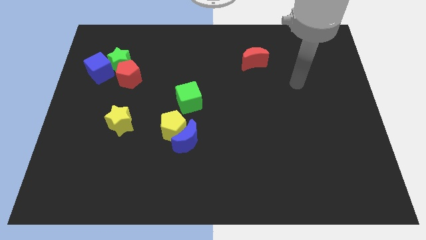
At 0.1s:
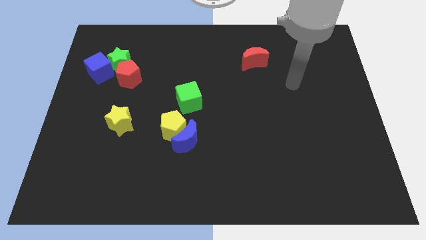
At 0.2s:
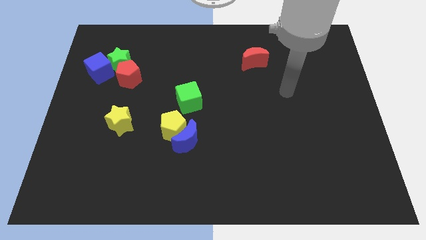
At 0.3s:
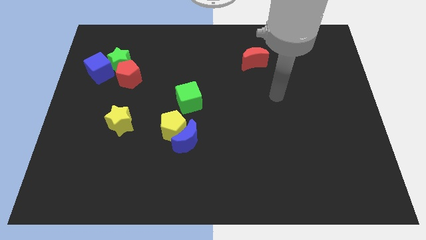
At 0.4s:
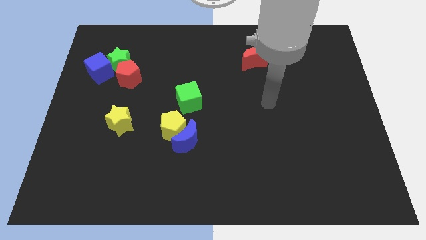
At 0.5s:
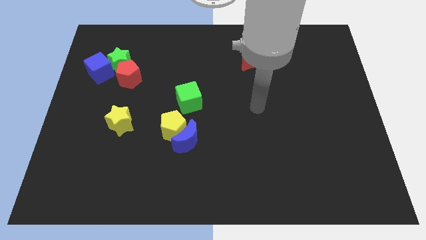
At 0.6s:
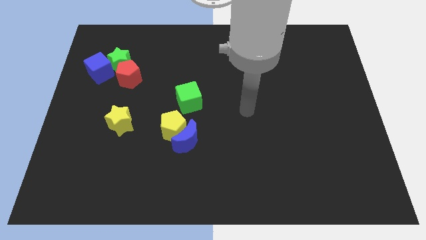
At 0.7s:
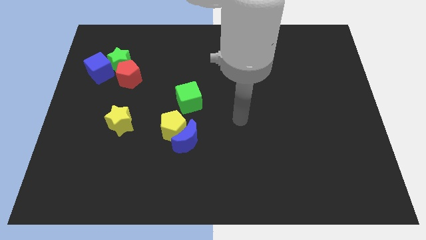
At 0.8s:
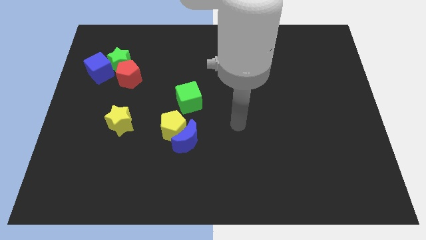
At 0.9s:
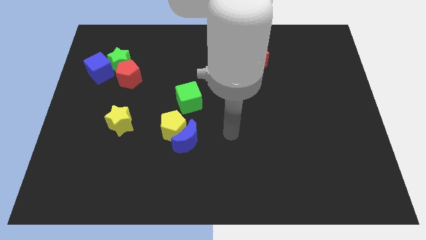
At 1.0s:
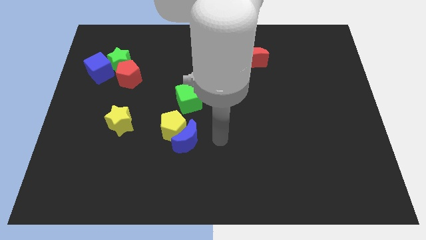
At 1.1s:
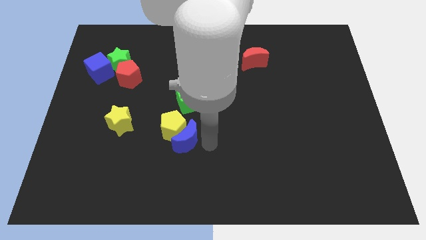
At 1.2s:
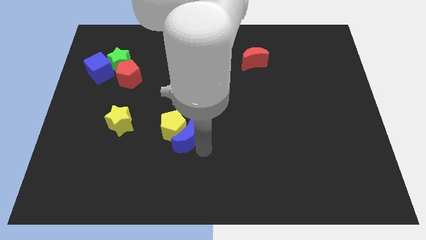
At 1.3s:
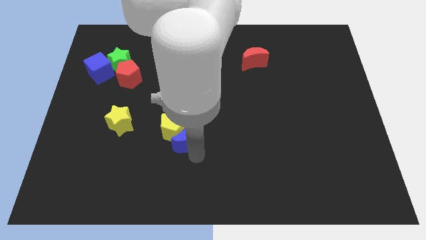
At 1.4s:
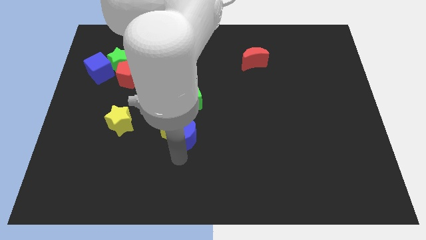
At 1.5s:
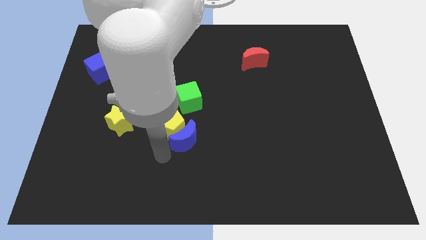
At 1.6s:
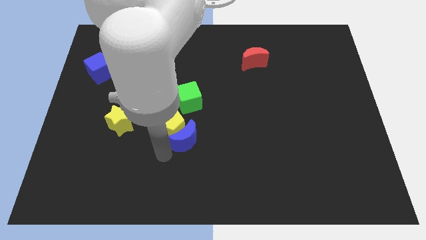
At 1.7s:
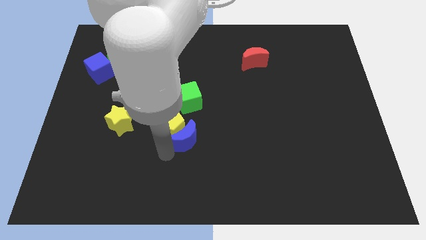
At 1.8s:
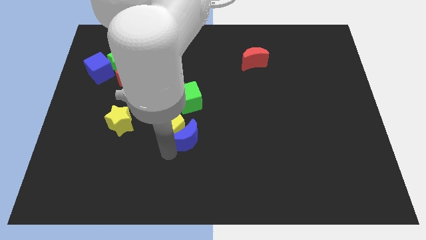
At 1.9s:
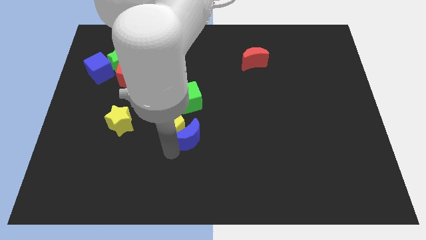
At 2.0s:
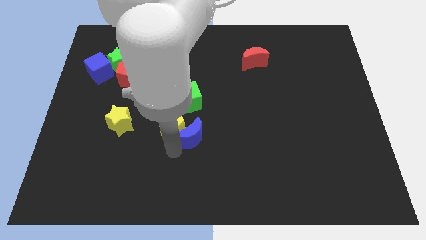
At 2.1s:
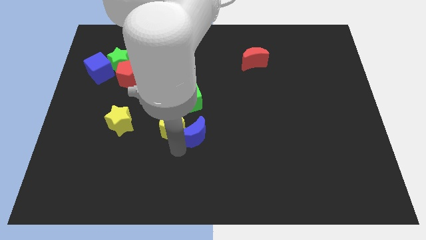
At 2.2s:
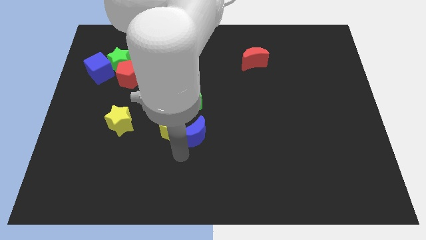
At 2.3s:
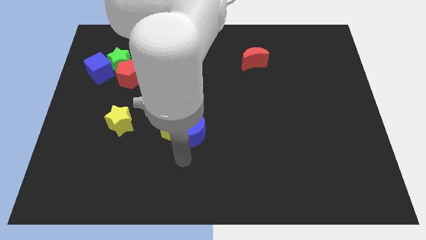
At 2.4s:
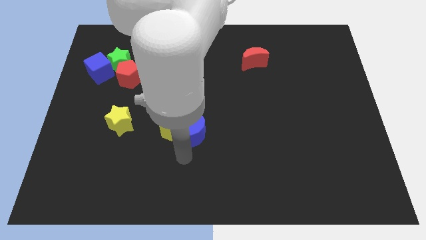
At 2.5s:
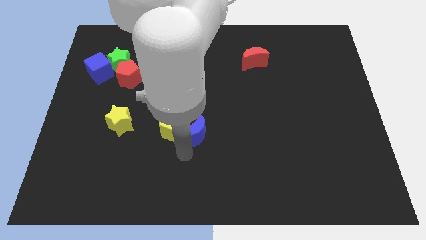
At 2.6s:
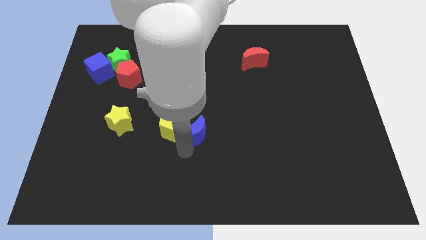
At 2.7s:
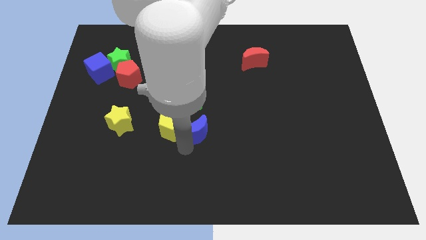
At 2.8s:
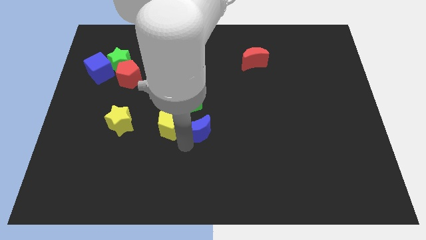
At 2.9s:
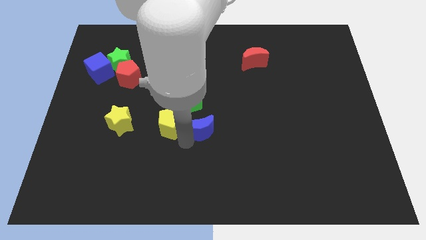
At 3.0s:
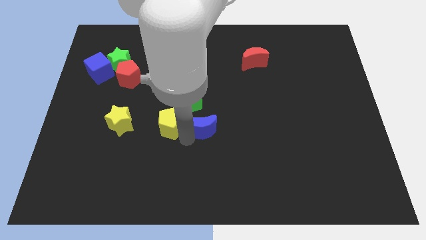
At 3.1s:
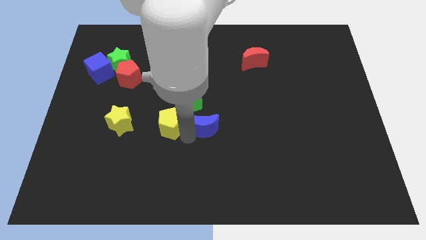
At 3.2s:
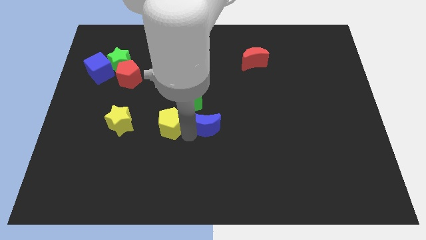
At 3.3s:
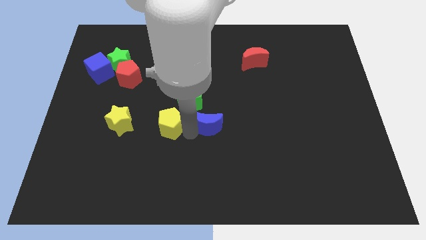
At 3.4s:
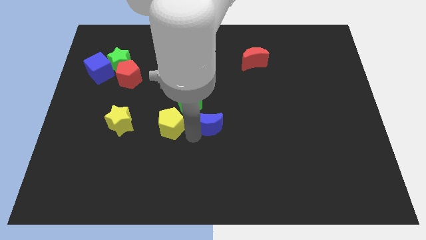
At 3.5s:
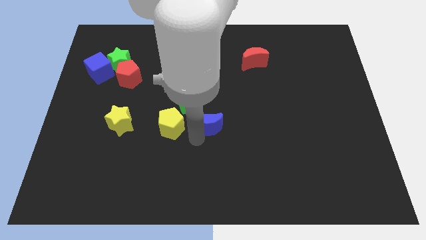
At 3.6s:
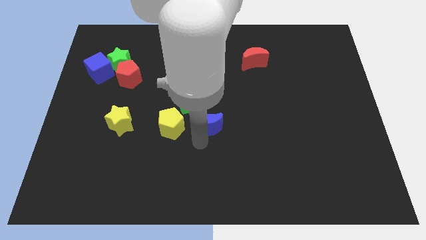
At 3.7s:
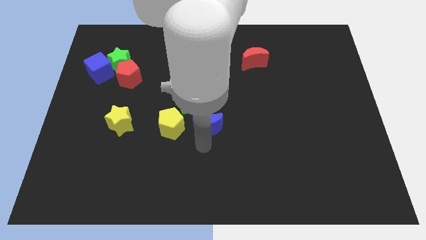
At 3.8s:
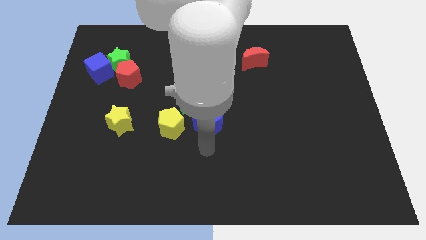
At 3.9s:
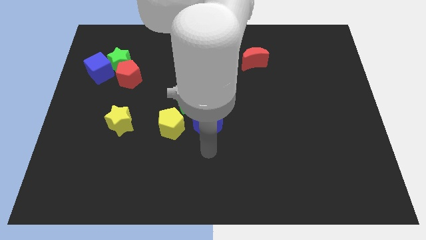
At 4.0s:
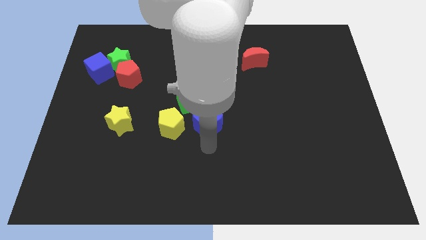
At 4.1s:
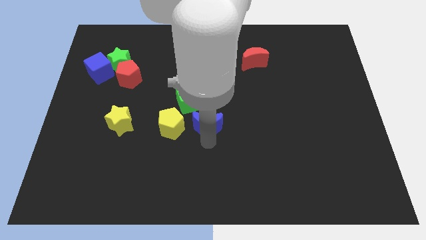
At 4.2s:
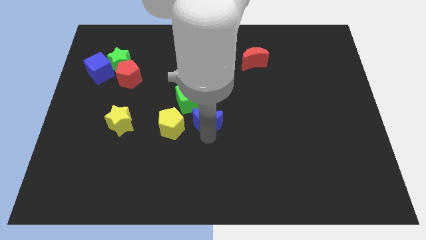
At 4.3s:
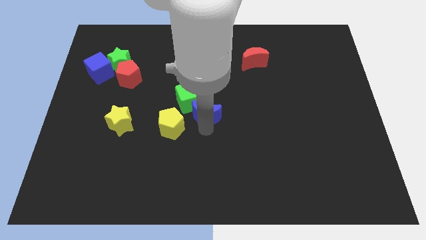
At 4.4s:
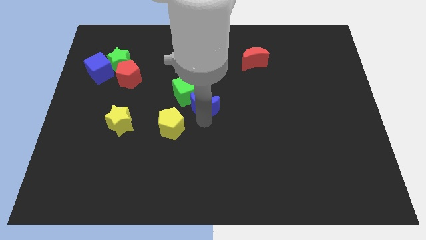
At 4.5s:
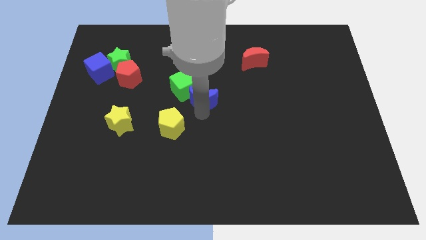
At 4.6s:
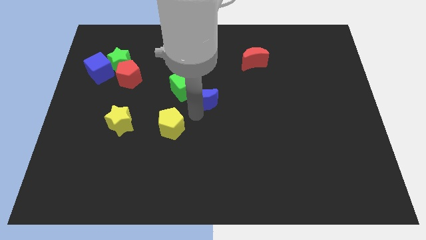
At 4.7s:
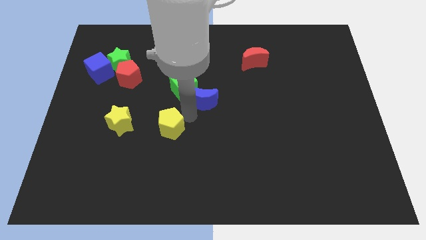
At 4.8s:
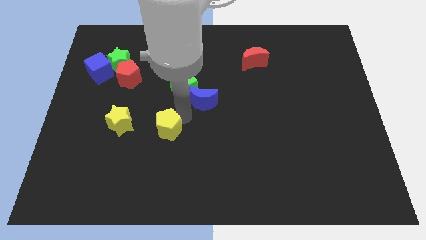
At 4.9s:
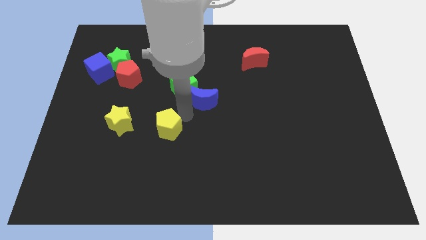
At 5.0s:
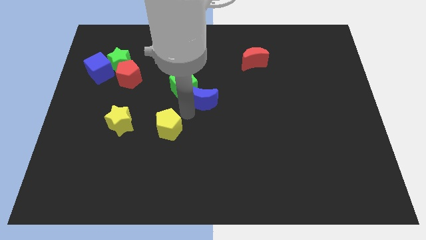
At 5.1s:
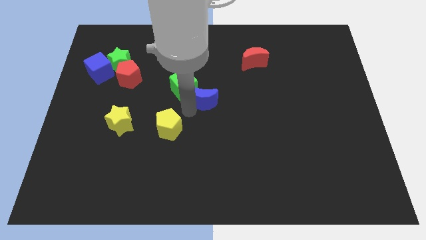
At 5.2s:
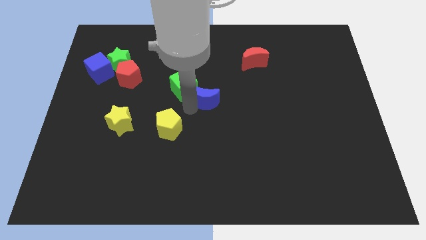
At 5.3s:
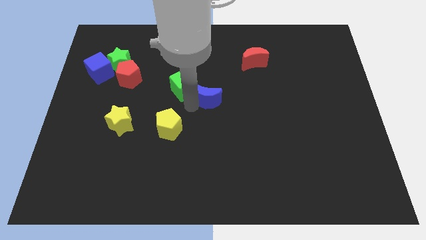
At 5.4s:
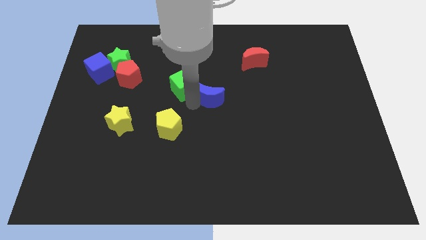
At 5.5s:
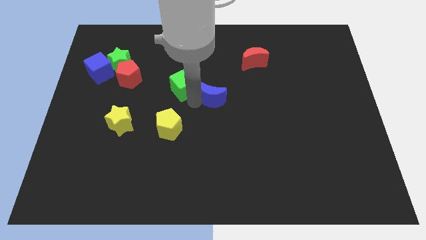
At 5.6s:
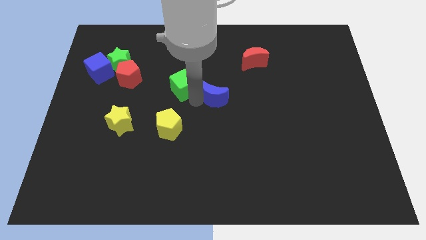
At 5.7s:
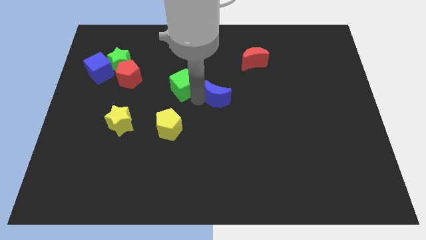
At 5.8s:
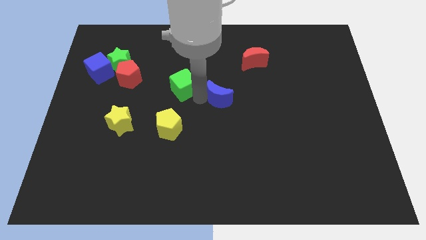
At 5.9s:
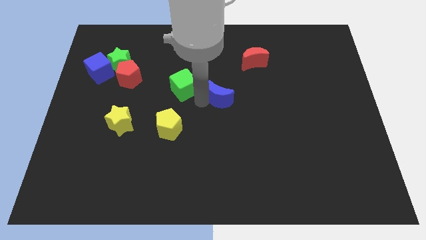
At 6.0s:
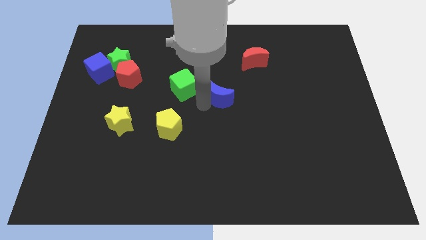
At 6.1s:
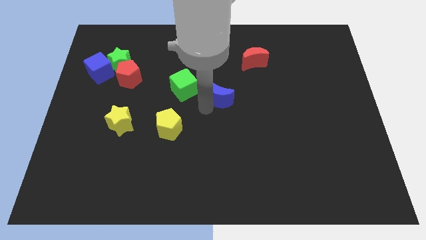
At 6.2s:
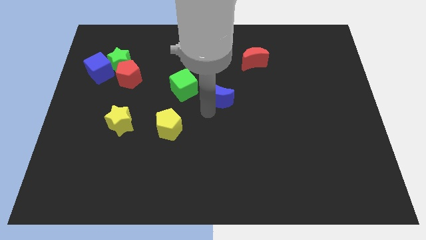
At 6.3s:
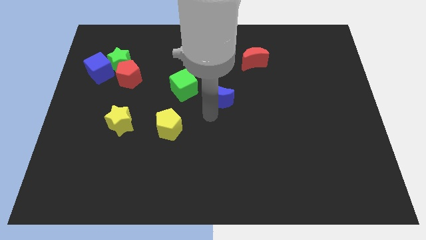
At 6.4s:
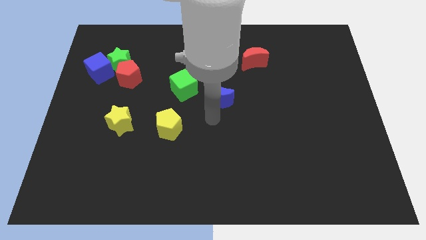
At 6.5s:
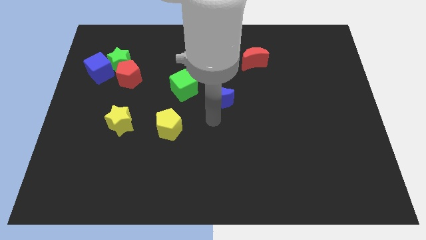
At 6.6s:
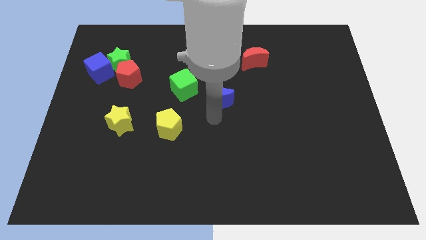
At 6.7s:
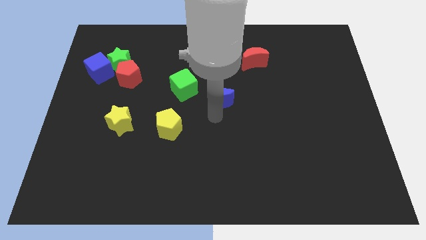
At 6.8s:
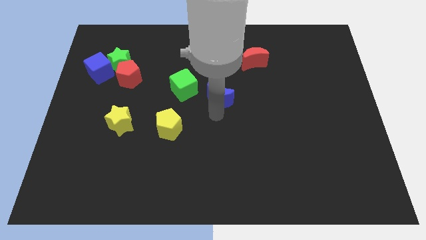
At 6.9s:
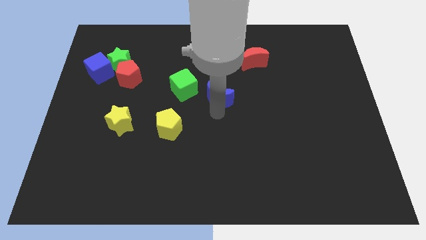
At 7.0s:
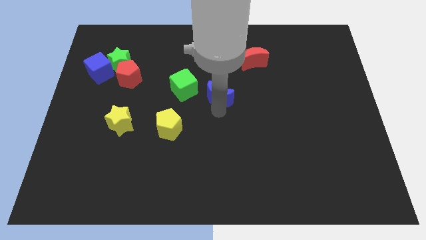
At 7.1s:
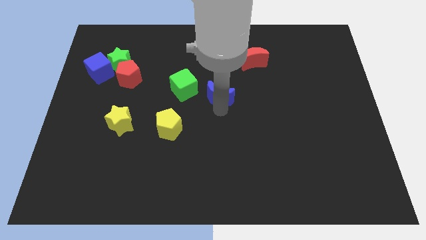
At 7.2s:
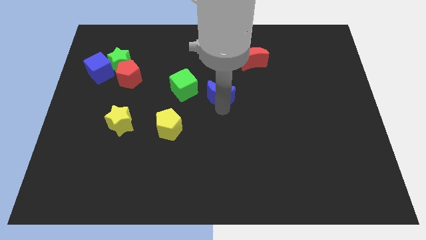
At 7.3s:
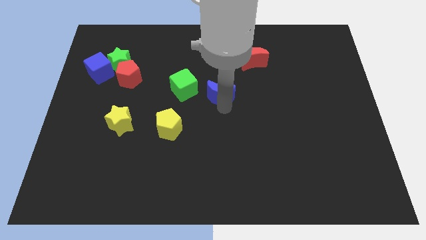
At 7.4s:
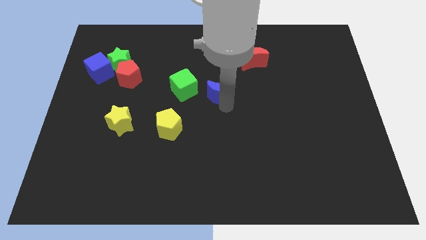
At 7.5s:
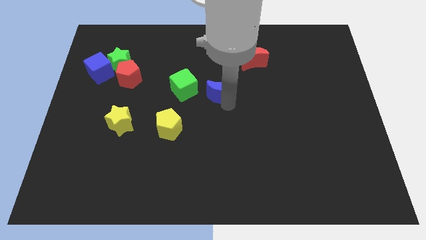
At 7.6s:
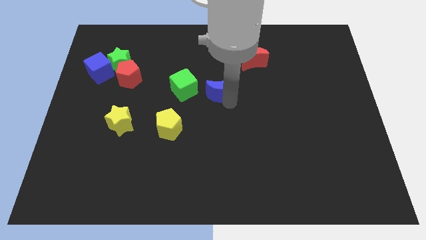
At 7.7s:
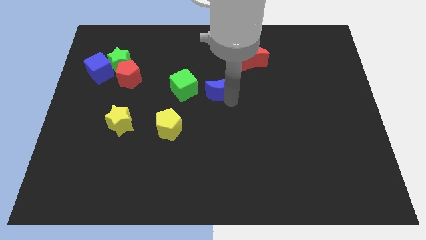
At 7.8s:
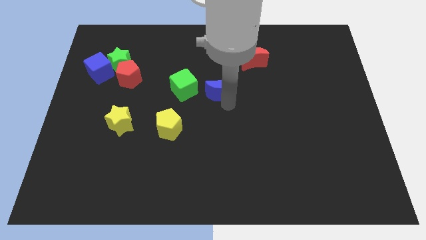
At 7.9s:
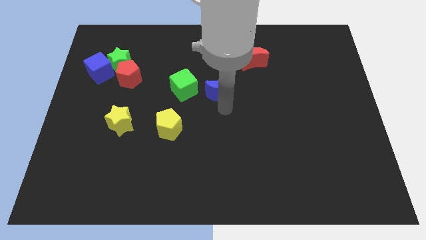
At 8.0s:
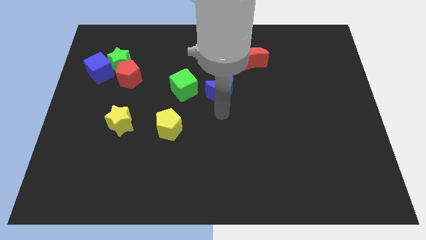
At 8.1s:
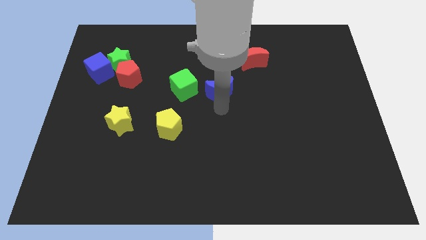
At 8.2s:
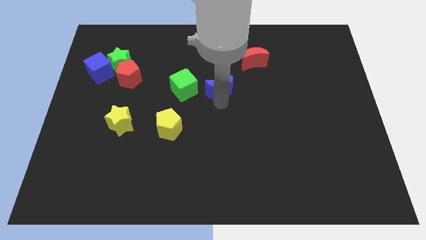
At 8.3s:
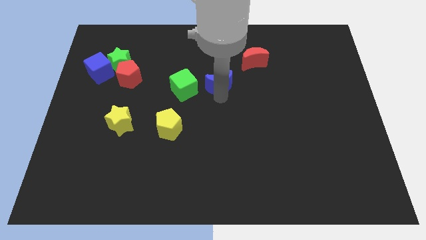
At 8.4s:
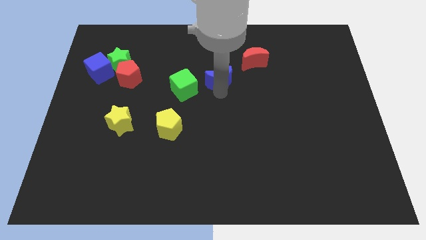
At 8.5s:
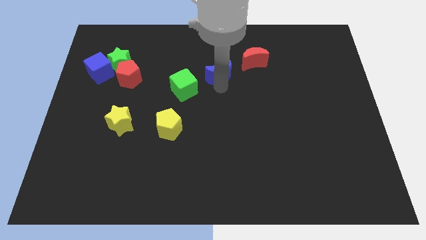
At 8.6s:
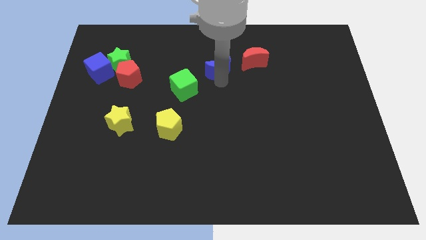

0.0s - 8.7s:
put the blue moon to the left of the red moon

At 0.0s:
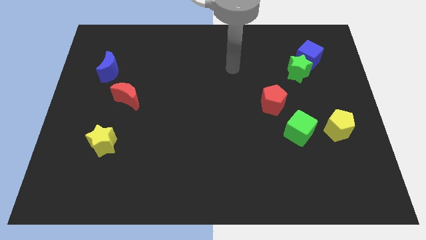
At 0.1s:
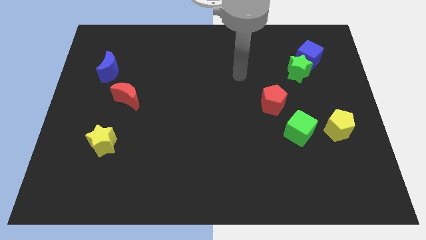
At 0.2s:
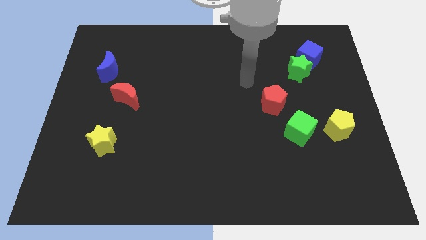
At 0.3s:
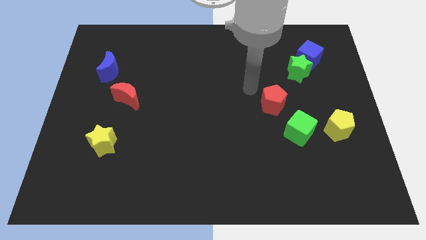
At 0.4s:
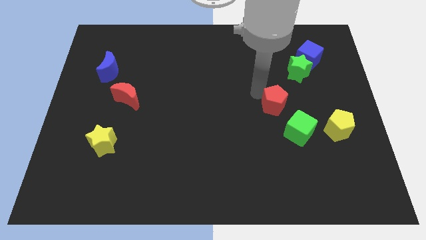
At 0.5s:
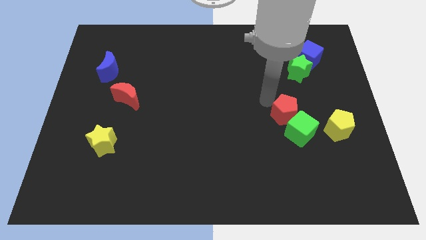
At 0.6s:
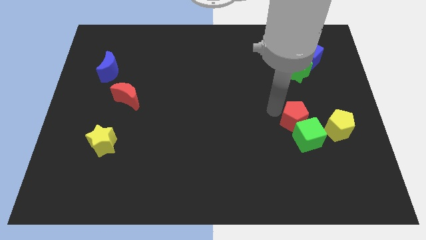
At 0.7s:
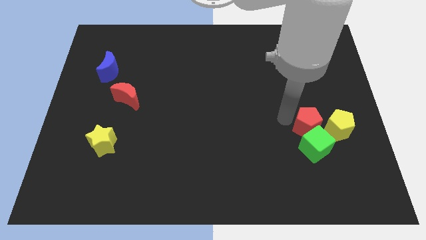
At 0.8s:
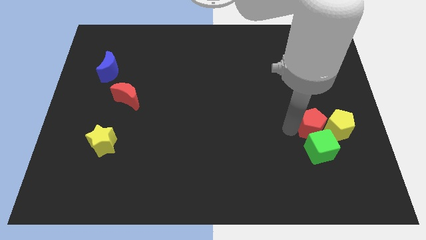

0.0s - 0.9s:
move the green cube below the yellow pentagon
